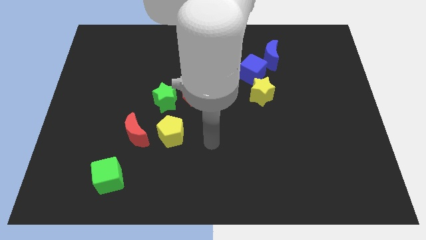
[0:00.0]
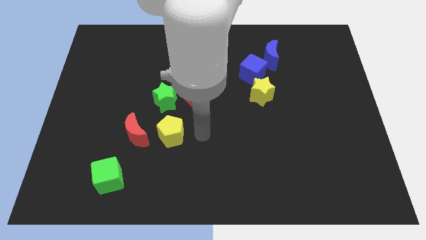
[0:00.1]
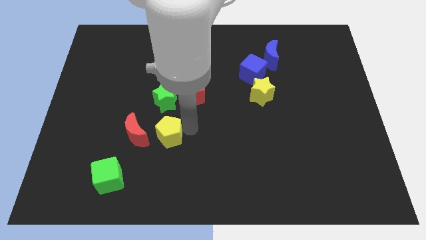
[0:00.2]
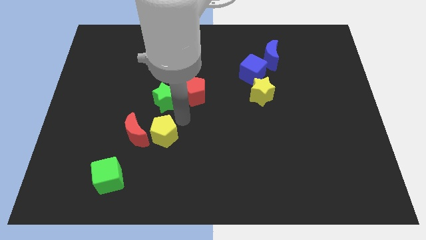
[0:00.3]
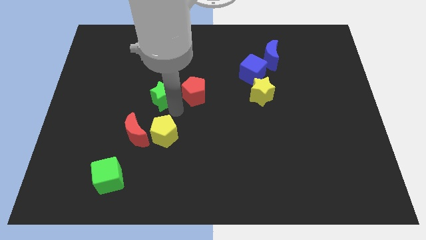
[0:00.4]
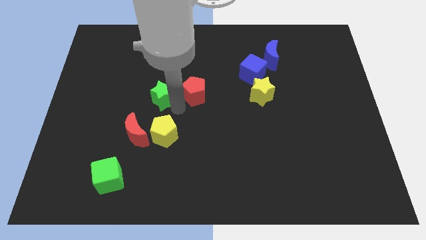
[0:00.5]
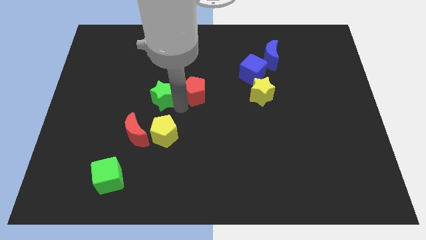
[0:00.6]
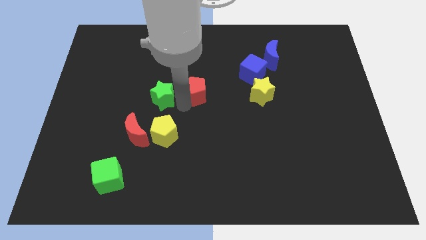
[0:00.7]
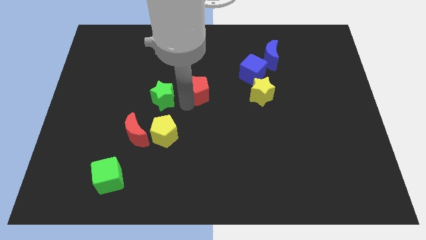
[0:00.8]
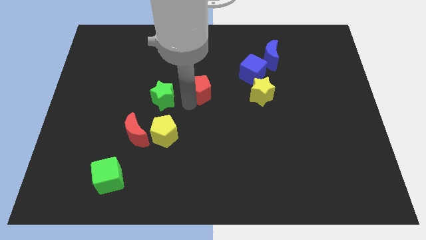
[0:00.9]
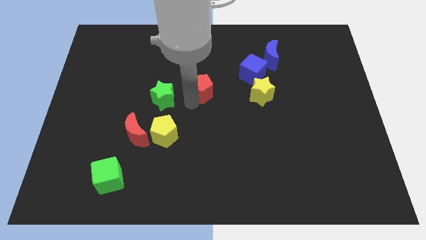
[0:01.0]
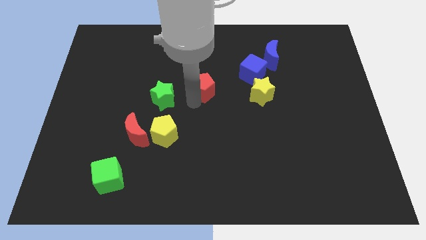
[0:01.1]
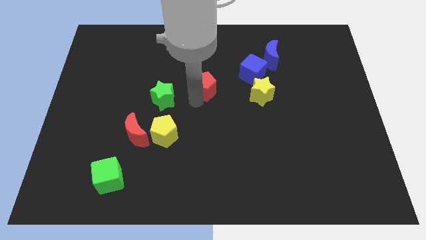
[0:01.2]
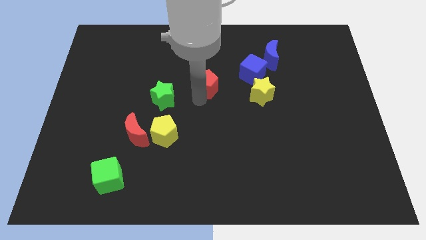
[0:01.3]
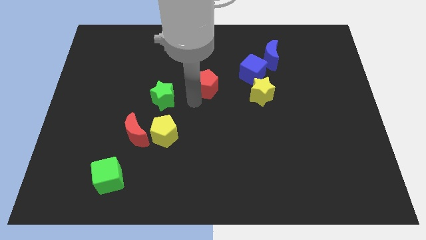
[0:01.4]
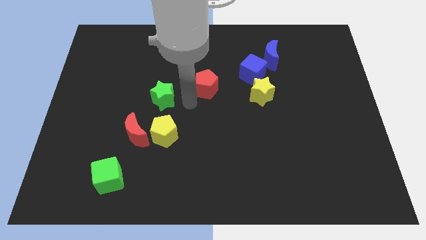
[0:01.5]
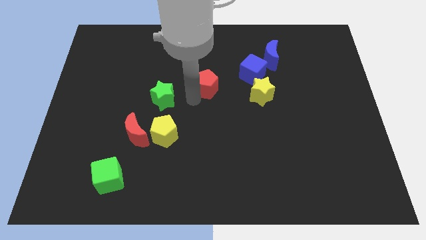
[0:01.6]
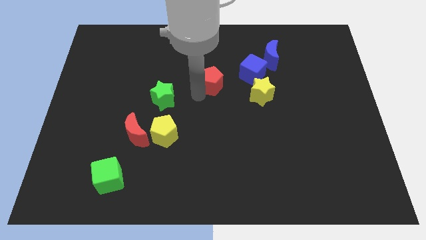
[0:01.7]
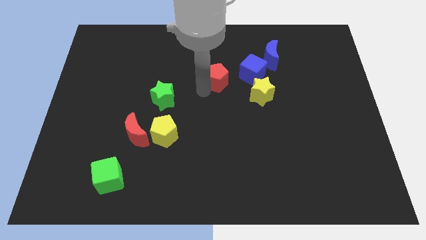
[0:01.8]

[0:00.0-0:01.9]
slightly push the red pentagon up and then to the right

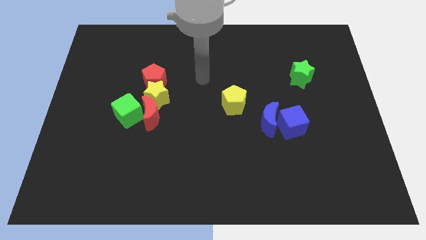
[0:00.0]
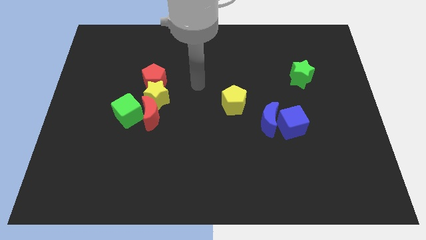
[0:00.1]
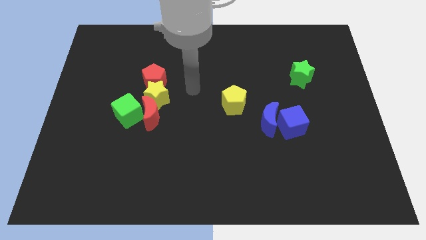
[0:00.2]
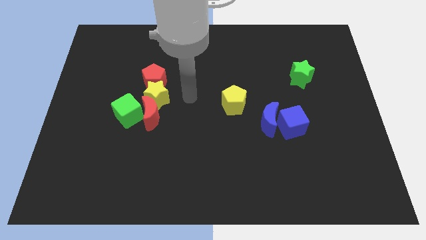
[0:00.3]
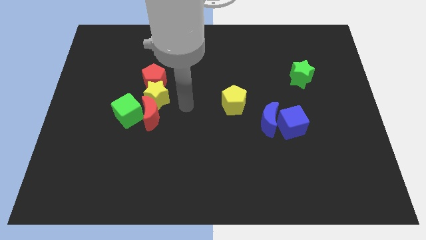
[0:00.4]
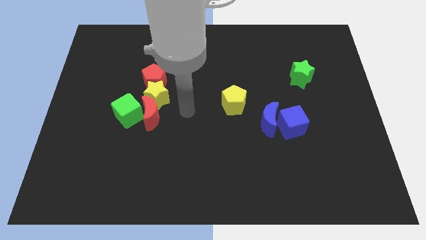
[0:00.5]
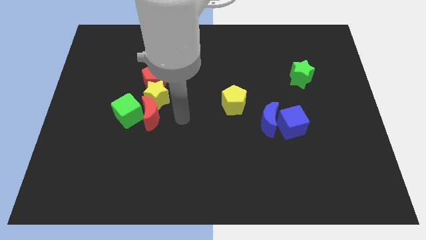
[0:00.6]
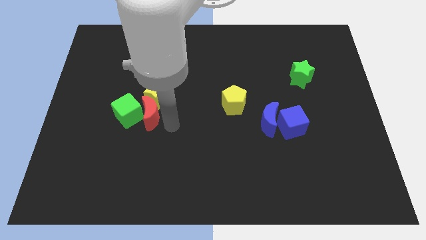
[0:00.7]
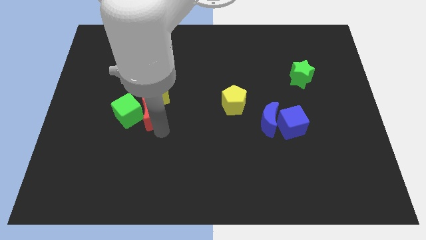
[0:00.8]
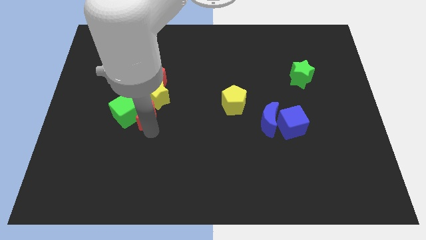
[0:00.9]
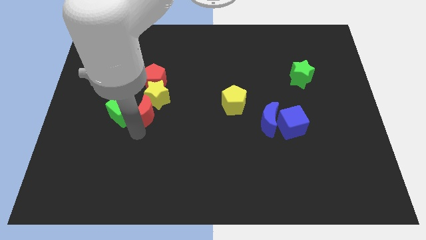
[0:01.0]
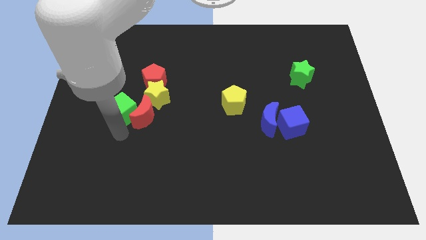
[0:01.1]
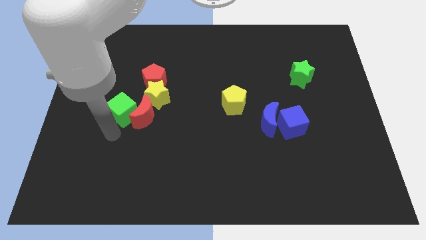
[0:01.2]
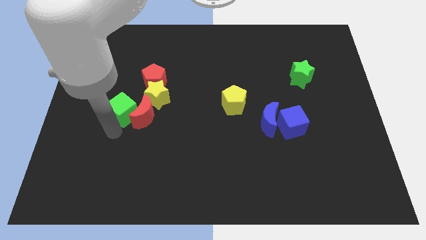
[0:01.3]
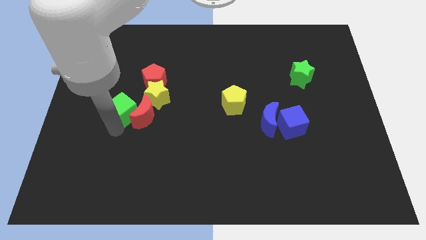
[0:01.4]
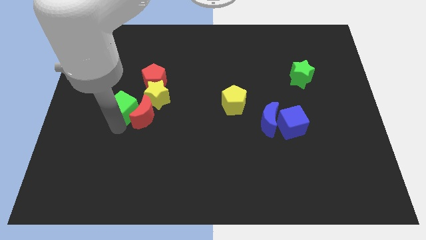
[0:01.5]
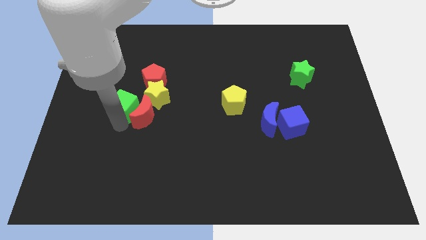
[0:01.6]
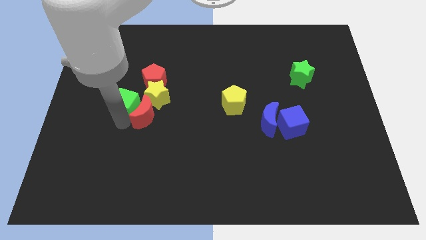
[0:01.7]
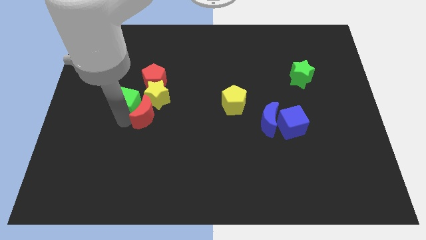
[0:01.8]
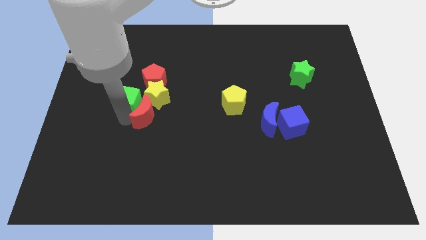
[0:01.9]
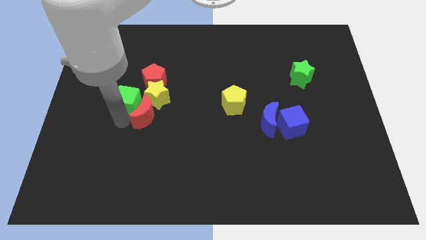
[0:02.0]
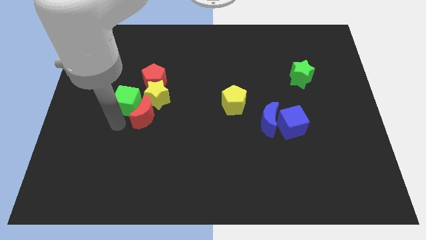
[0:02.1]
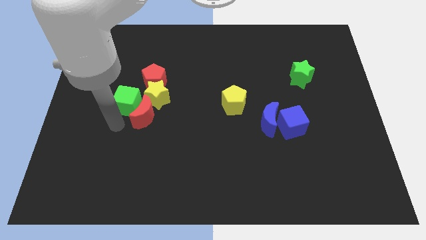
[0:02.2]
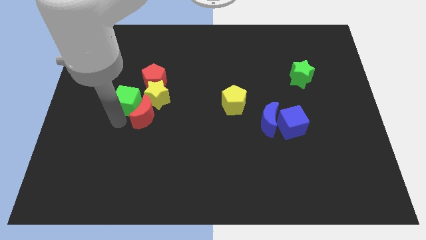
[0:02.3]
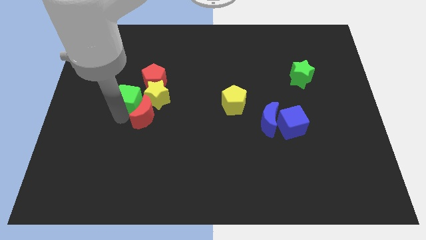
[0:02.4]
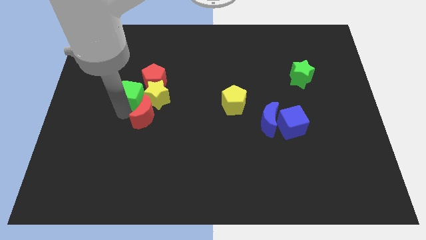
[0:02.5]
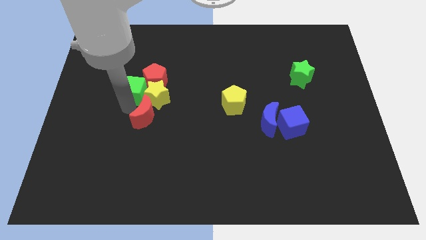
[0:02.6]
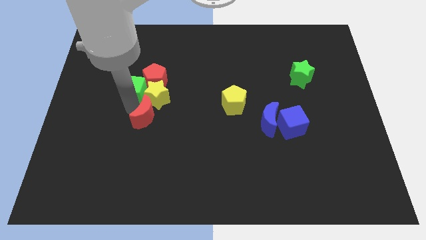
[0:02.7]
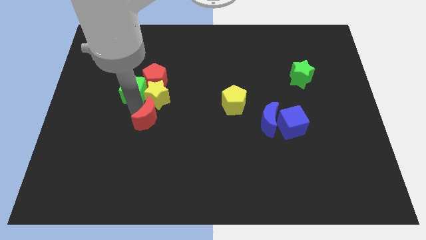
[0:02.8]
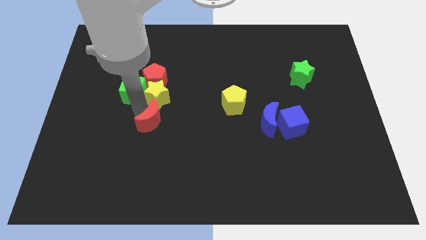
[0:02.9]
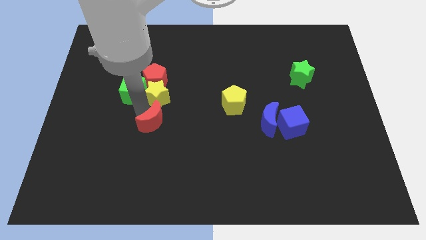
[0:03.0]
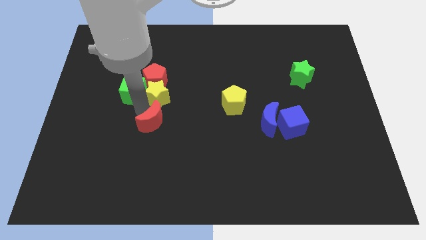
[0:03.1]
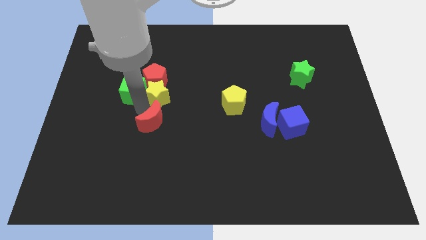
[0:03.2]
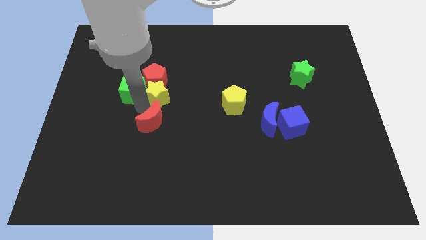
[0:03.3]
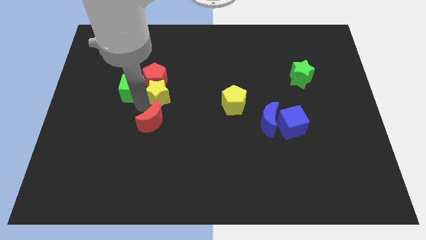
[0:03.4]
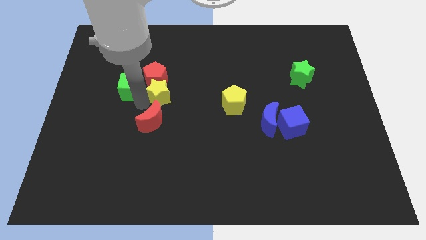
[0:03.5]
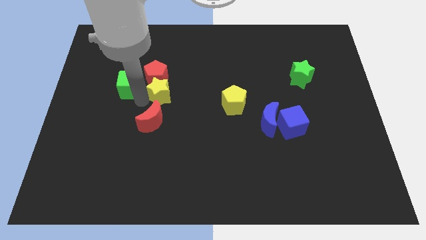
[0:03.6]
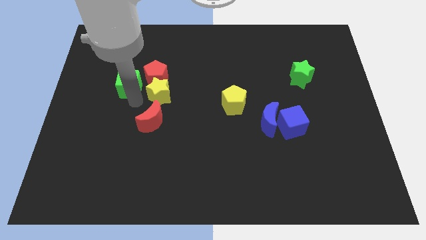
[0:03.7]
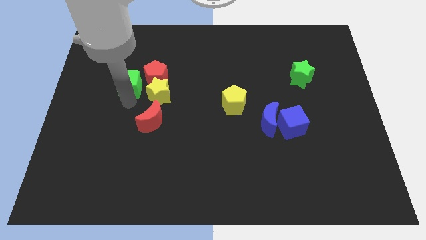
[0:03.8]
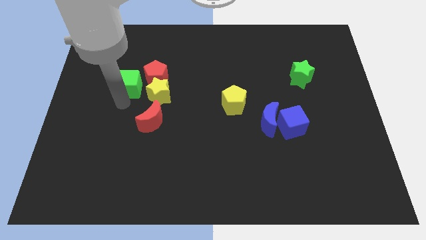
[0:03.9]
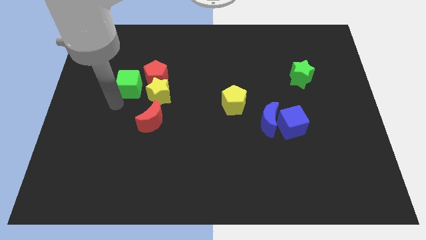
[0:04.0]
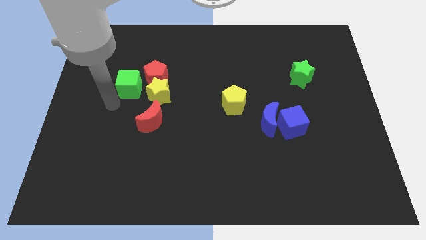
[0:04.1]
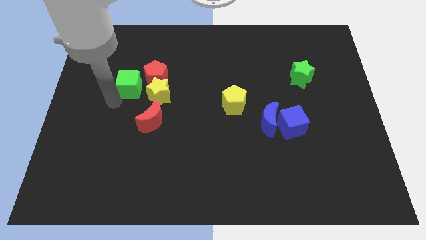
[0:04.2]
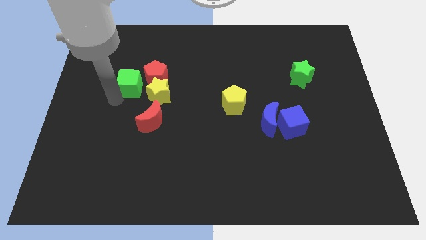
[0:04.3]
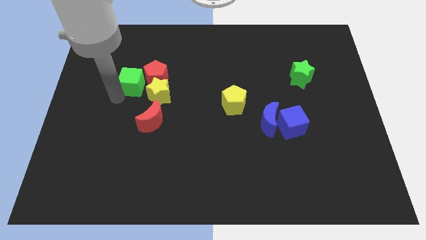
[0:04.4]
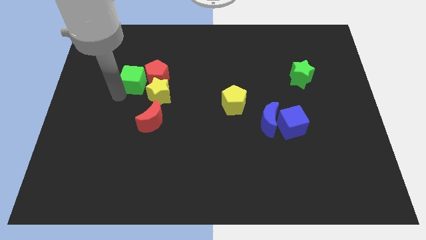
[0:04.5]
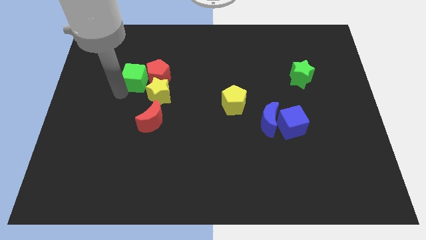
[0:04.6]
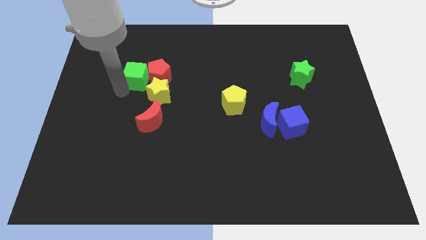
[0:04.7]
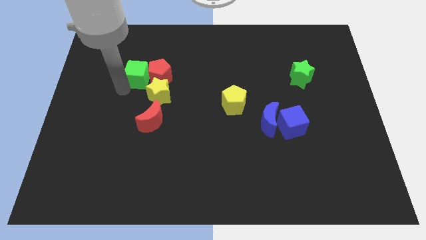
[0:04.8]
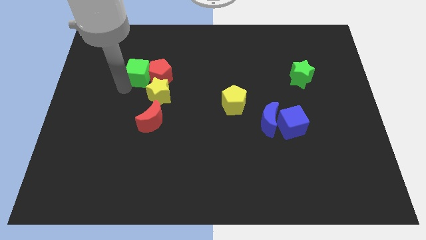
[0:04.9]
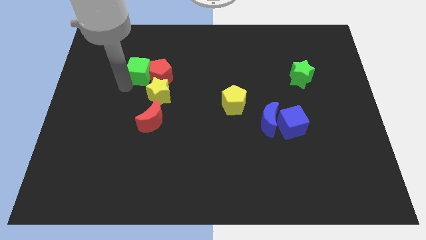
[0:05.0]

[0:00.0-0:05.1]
slightly push the green cube upwards and then to the right

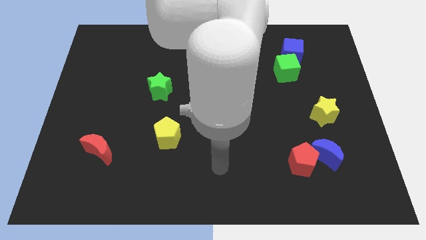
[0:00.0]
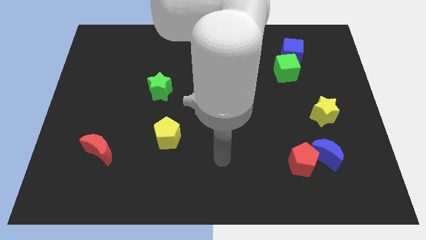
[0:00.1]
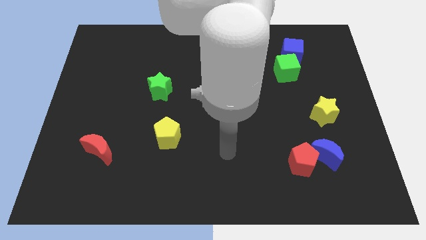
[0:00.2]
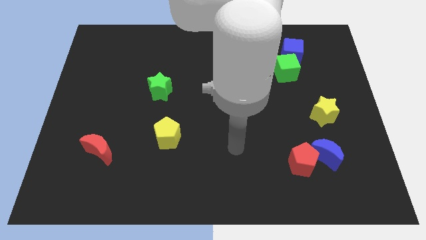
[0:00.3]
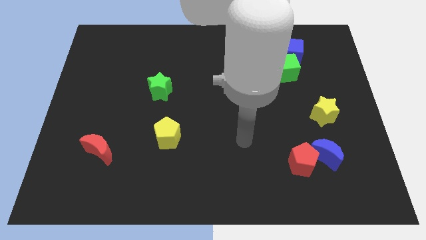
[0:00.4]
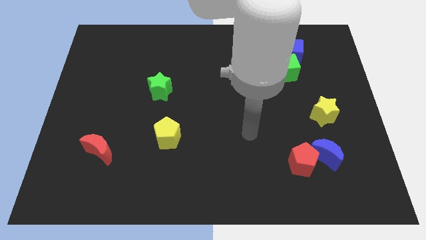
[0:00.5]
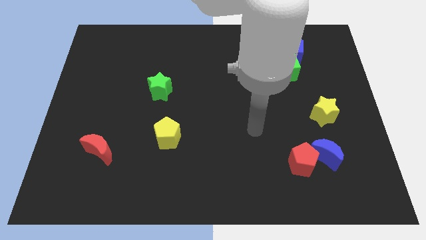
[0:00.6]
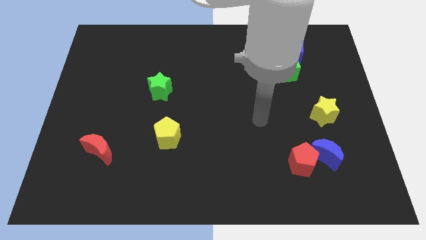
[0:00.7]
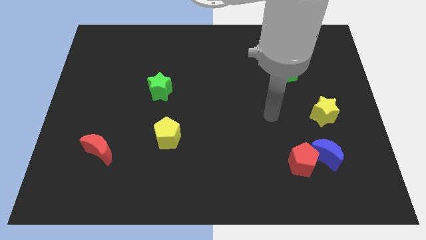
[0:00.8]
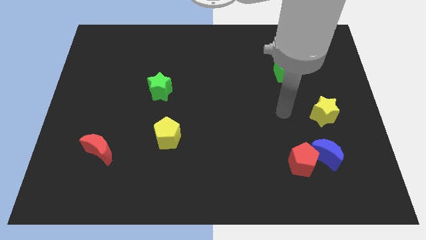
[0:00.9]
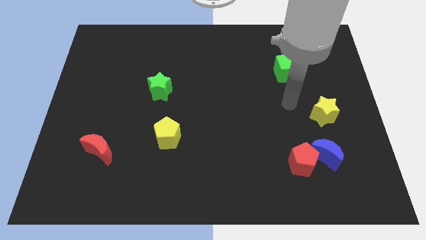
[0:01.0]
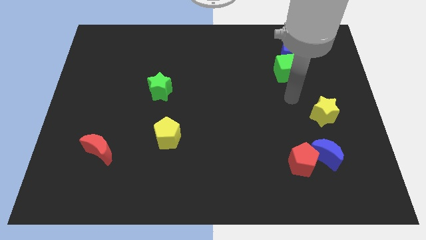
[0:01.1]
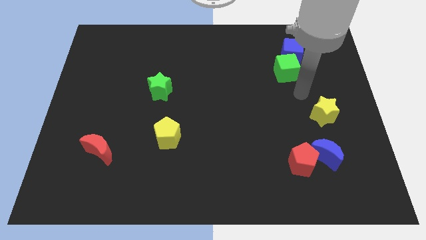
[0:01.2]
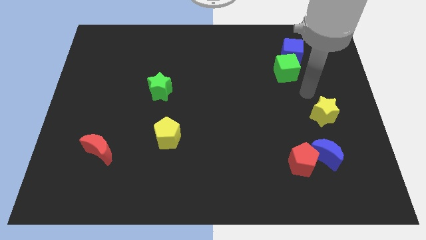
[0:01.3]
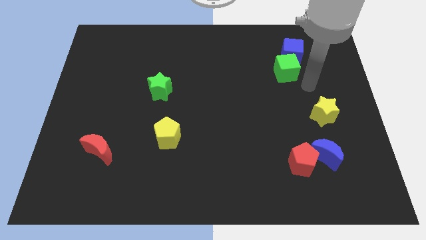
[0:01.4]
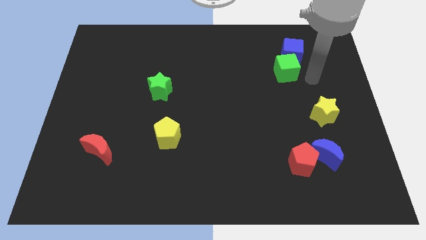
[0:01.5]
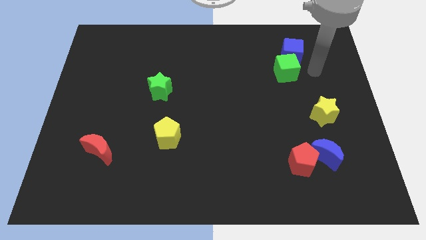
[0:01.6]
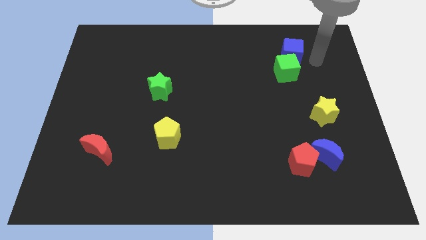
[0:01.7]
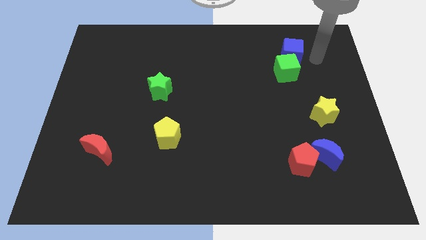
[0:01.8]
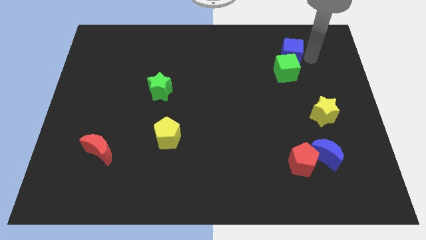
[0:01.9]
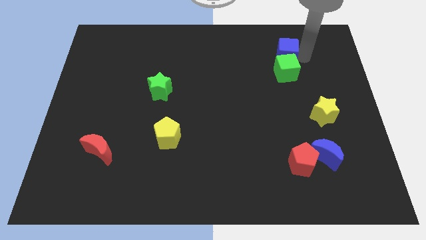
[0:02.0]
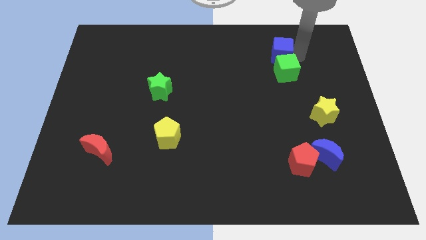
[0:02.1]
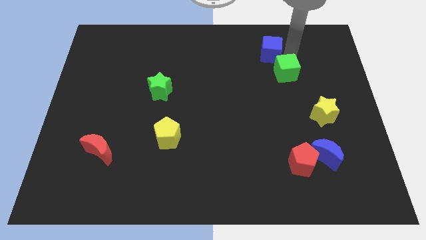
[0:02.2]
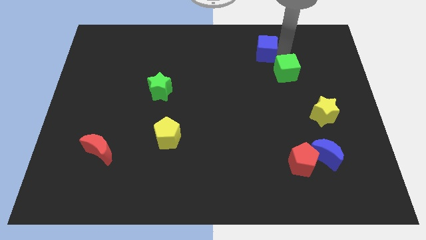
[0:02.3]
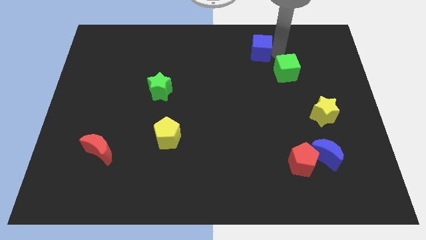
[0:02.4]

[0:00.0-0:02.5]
slightly push the blue cube left
